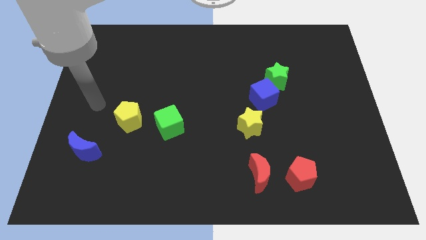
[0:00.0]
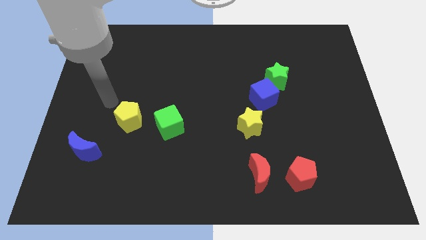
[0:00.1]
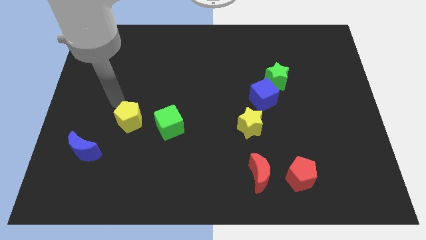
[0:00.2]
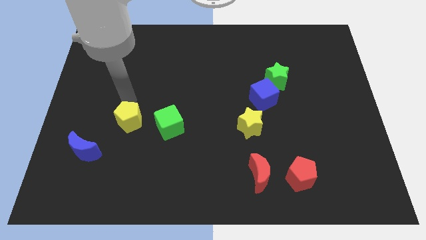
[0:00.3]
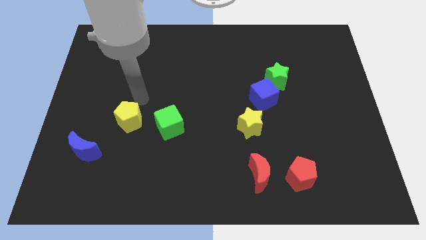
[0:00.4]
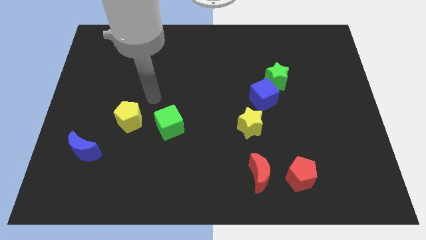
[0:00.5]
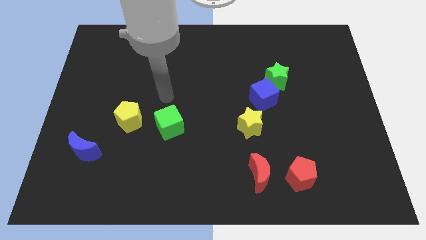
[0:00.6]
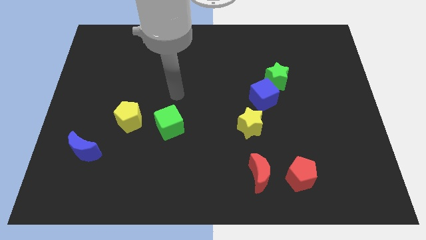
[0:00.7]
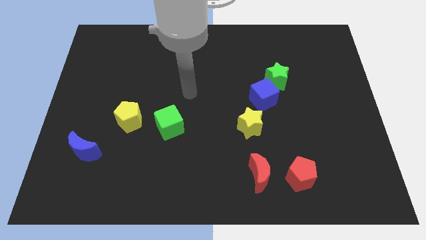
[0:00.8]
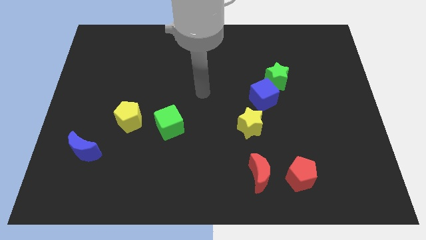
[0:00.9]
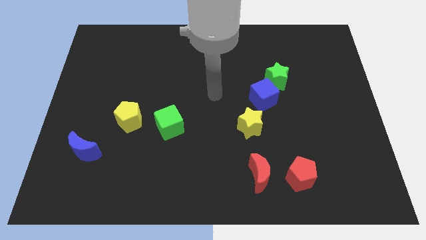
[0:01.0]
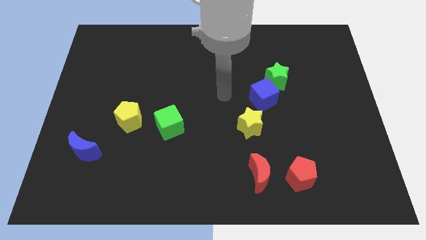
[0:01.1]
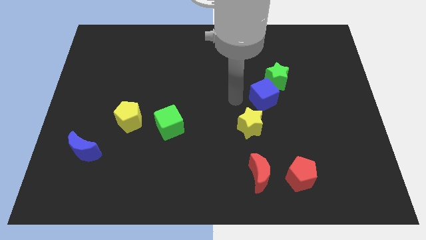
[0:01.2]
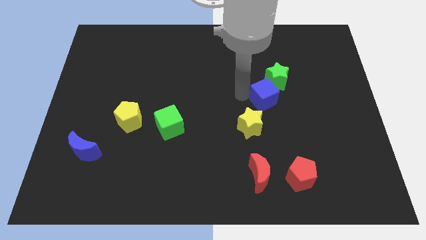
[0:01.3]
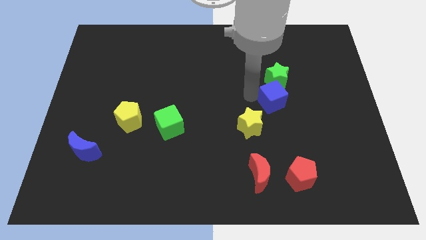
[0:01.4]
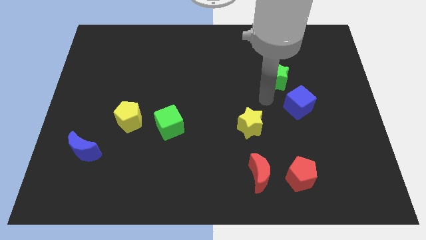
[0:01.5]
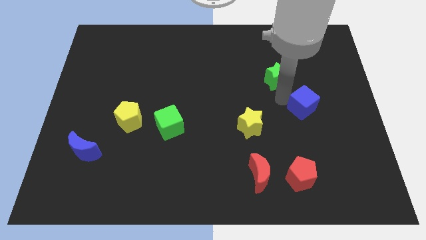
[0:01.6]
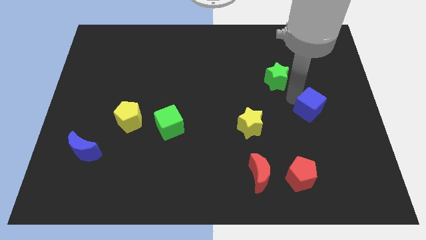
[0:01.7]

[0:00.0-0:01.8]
separate the green star from the blue cube

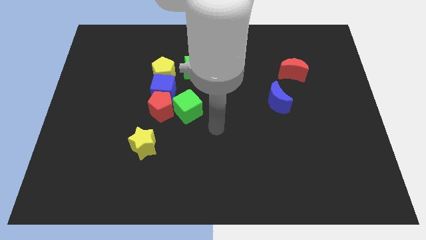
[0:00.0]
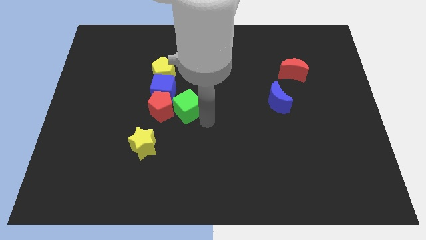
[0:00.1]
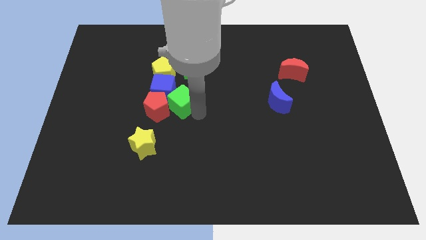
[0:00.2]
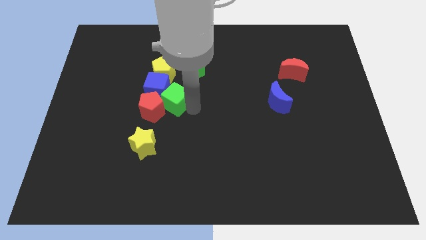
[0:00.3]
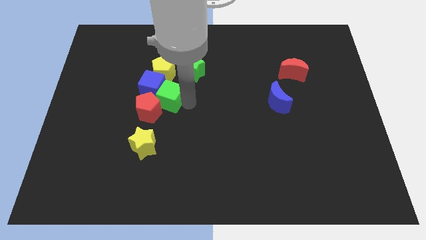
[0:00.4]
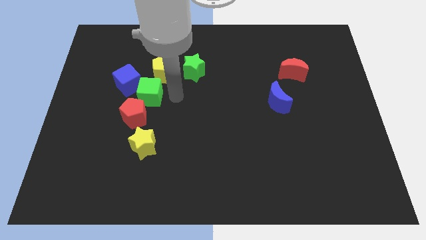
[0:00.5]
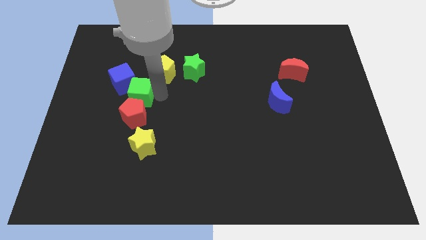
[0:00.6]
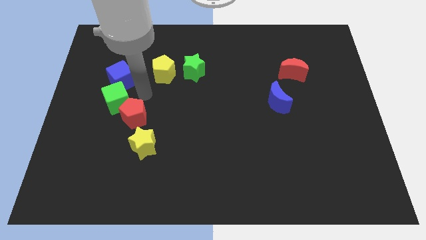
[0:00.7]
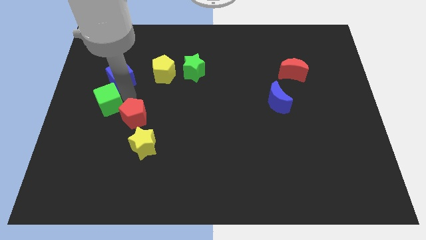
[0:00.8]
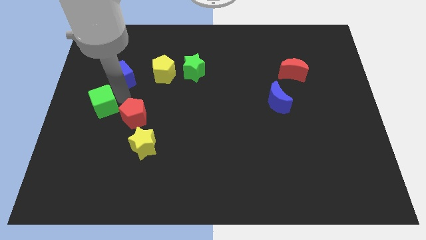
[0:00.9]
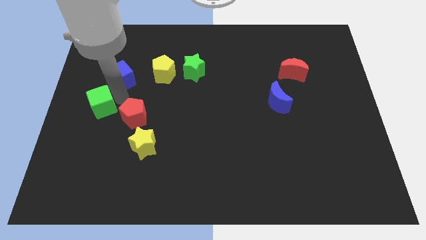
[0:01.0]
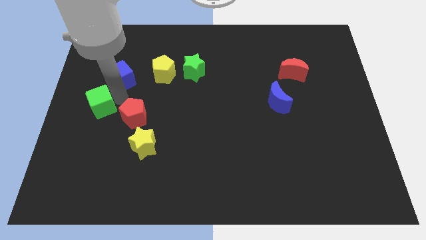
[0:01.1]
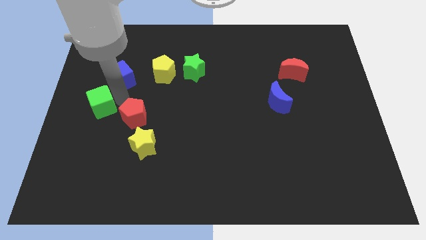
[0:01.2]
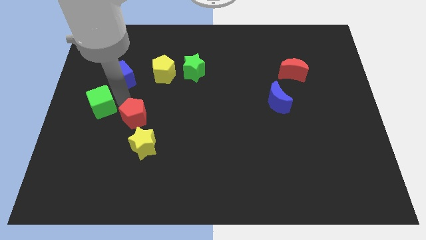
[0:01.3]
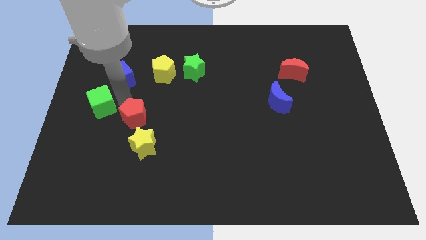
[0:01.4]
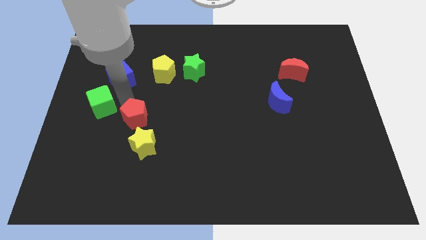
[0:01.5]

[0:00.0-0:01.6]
separate the red pentagon from the blue cube and green cube

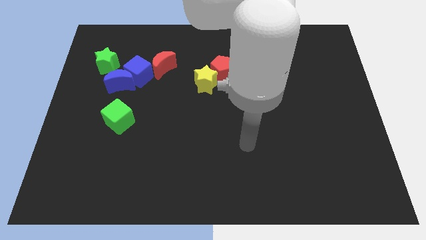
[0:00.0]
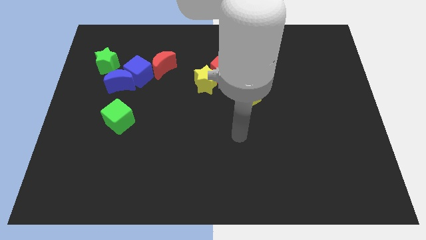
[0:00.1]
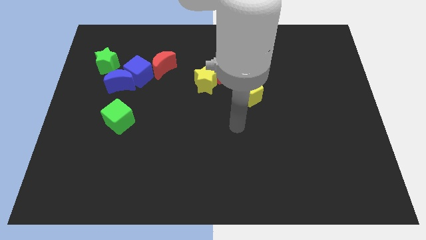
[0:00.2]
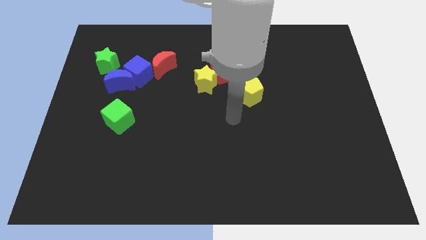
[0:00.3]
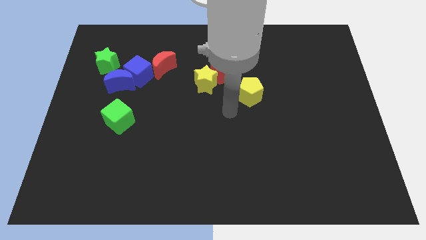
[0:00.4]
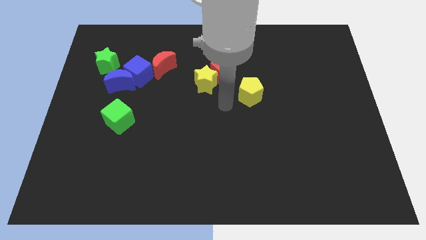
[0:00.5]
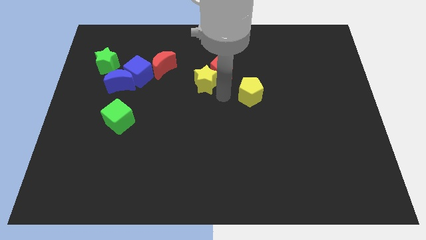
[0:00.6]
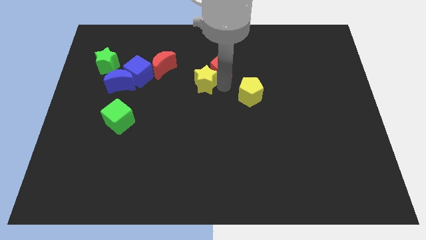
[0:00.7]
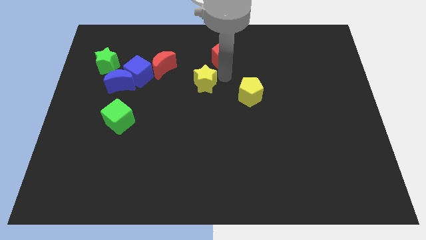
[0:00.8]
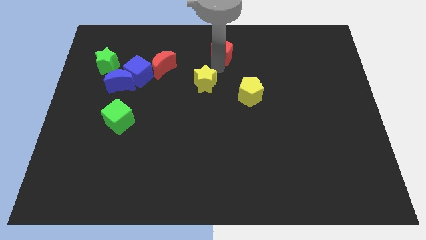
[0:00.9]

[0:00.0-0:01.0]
pull the yellow star apart from the red pentagon

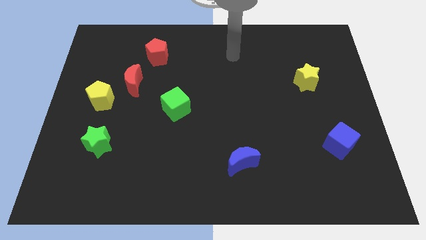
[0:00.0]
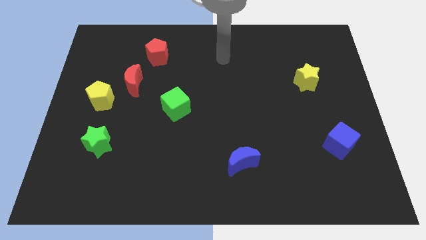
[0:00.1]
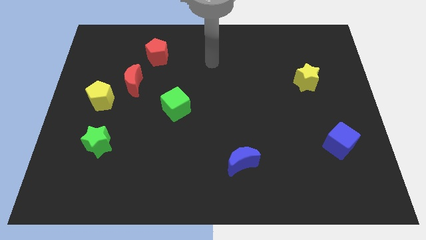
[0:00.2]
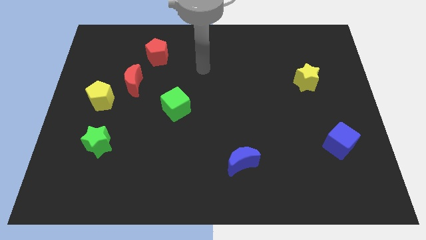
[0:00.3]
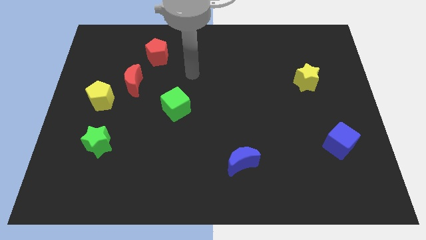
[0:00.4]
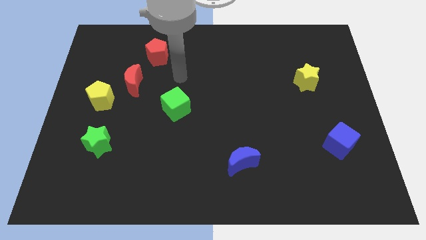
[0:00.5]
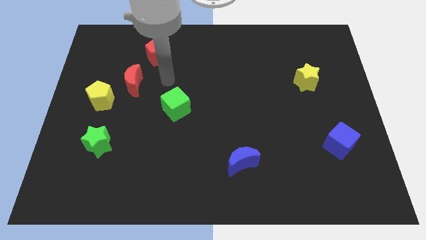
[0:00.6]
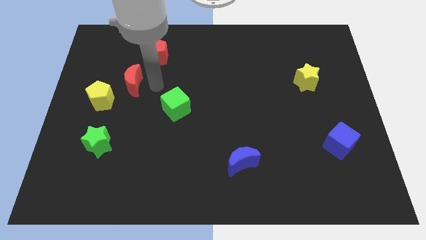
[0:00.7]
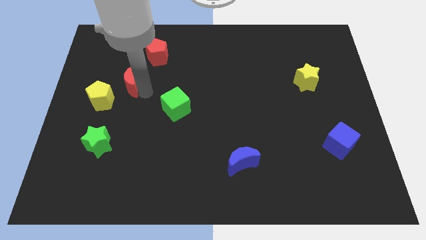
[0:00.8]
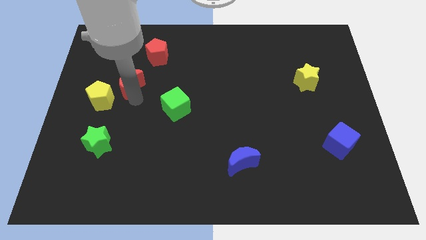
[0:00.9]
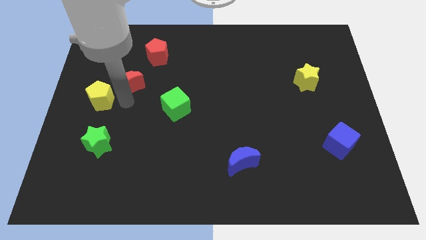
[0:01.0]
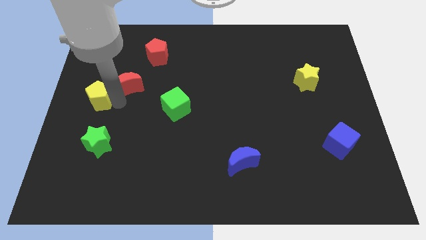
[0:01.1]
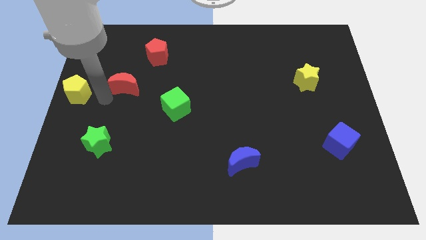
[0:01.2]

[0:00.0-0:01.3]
move the red moon away from the yellow pentagon

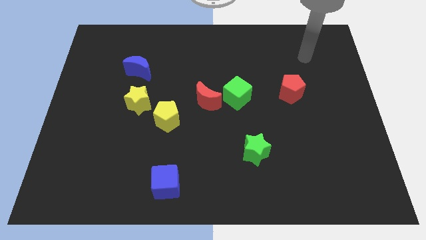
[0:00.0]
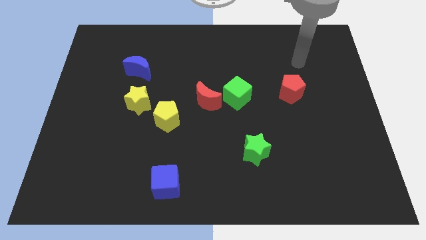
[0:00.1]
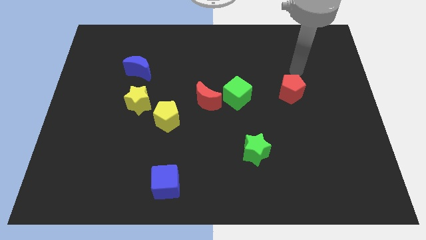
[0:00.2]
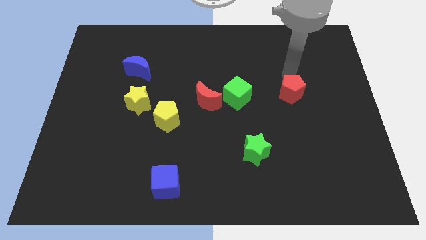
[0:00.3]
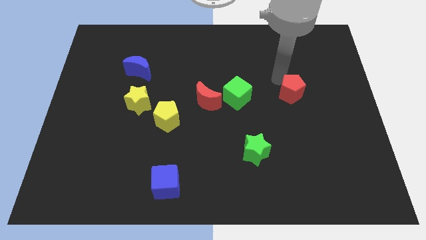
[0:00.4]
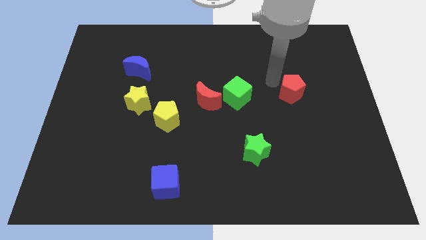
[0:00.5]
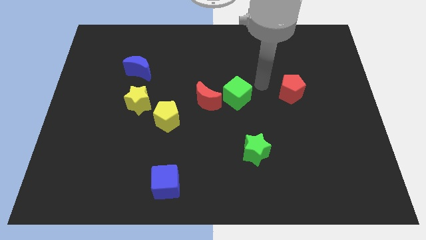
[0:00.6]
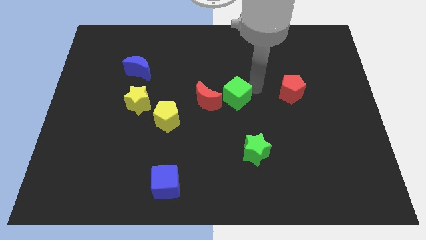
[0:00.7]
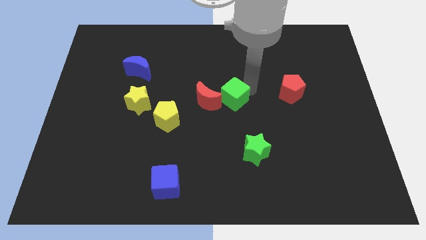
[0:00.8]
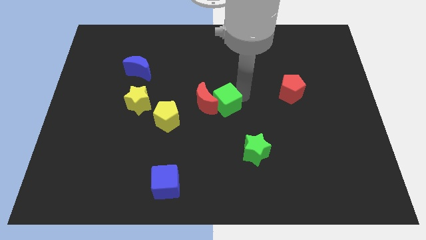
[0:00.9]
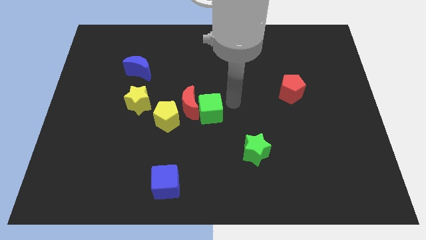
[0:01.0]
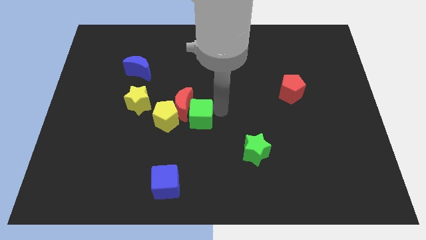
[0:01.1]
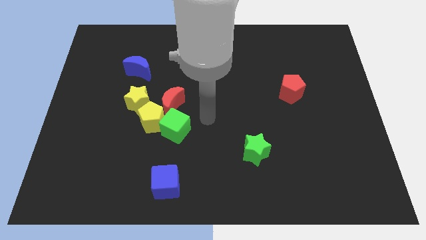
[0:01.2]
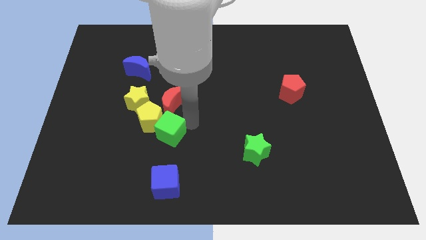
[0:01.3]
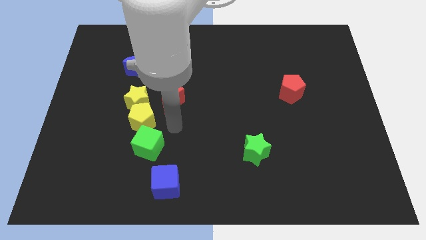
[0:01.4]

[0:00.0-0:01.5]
separate the red moon from the green cube

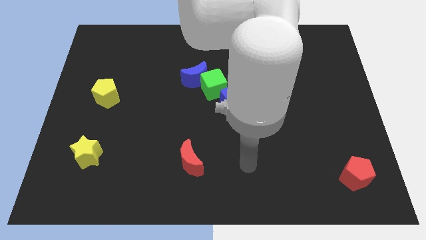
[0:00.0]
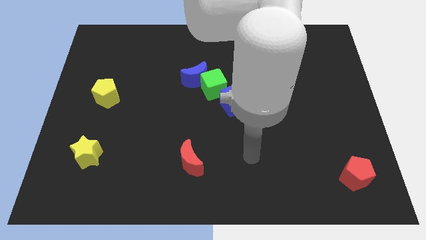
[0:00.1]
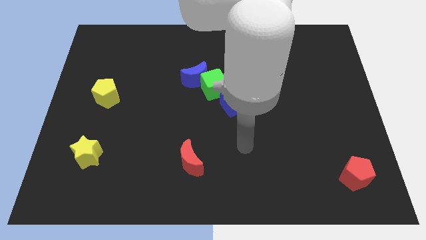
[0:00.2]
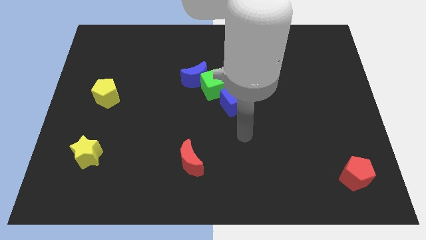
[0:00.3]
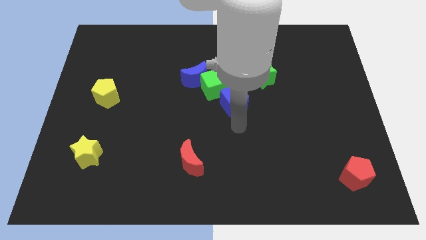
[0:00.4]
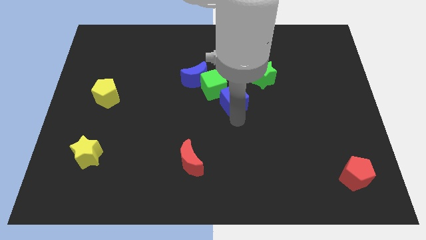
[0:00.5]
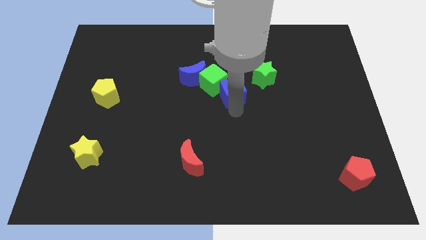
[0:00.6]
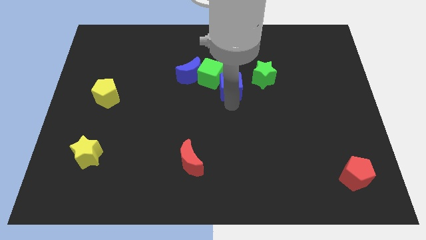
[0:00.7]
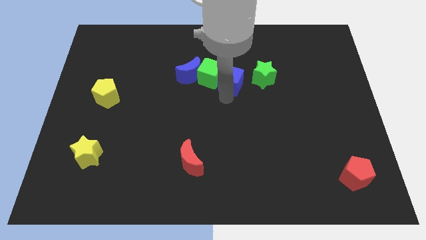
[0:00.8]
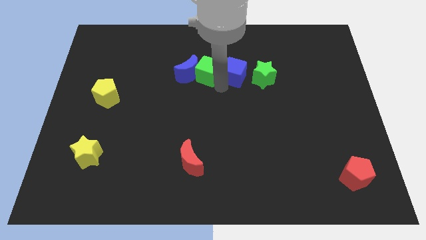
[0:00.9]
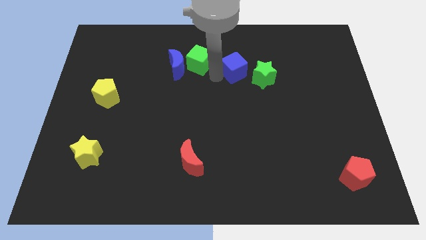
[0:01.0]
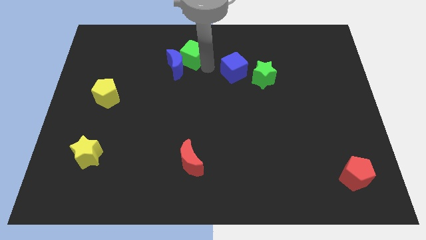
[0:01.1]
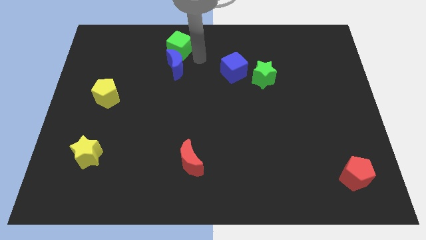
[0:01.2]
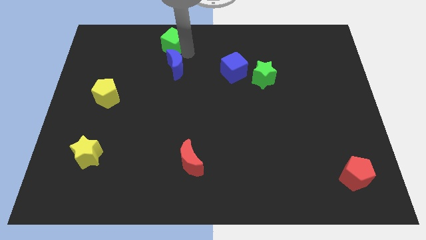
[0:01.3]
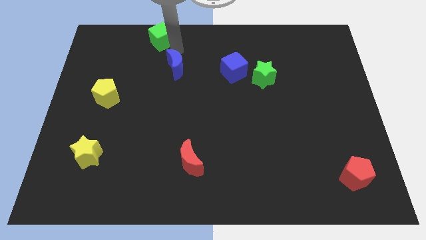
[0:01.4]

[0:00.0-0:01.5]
separate the blue moon from the green cube

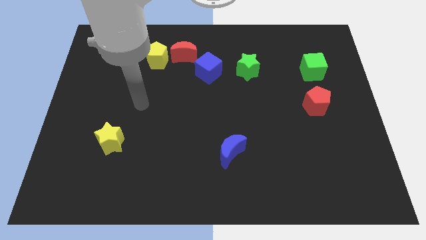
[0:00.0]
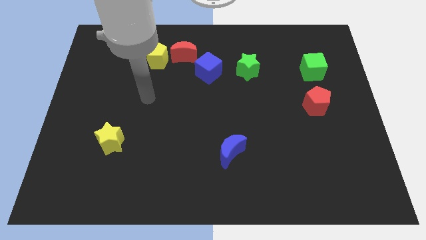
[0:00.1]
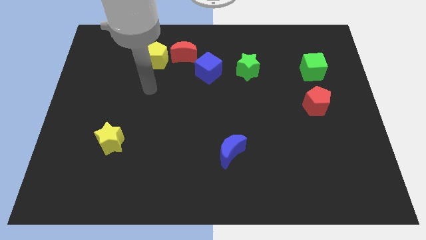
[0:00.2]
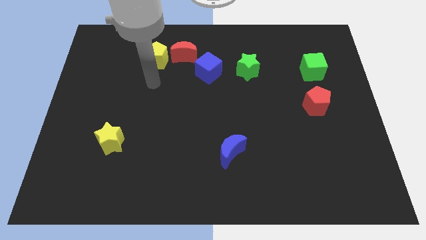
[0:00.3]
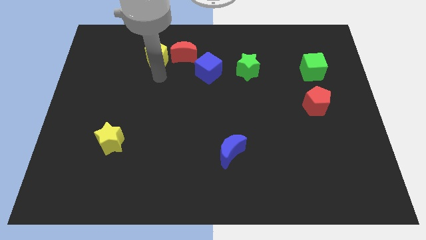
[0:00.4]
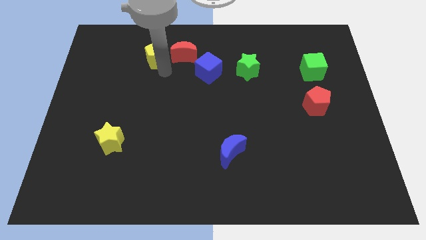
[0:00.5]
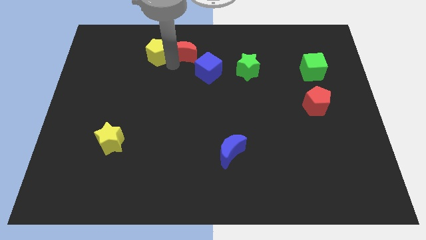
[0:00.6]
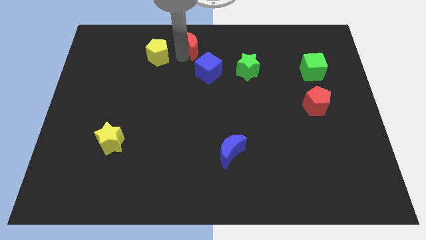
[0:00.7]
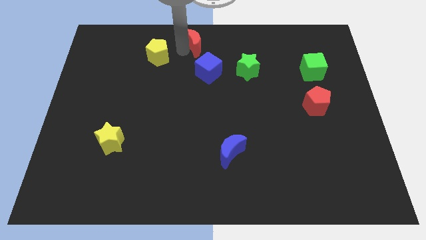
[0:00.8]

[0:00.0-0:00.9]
move the yellow pentagon away from the red moon
